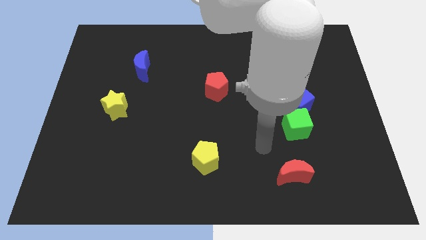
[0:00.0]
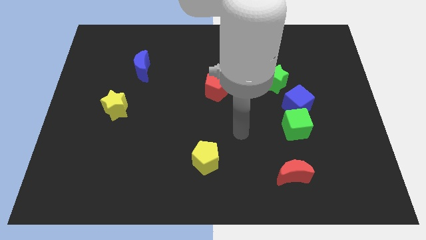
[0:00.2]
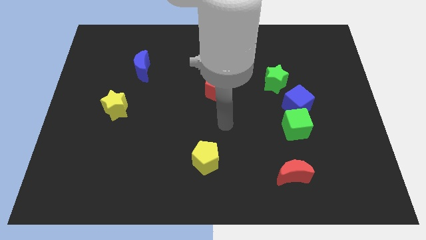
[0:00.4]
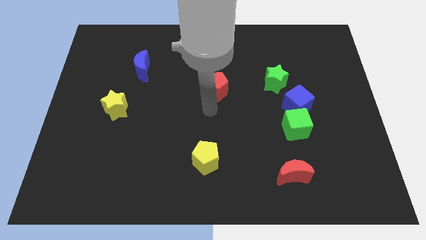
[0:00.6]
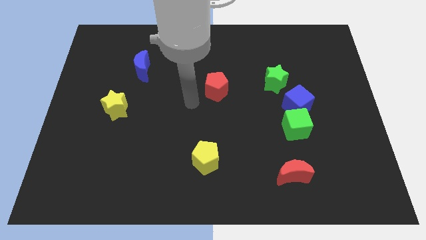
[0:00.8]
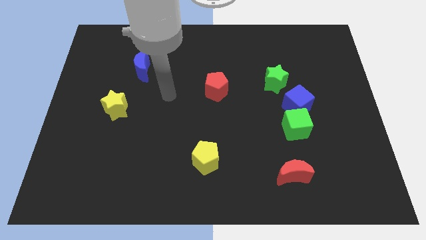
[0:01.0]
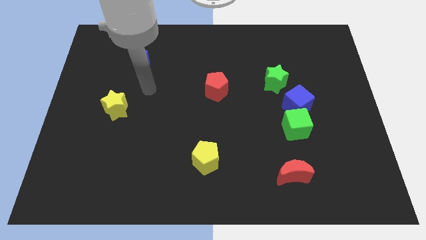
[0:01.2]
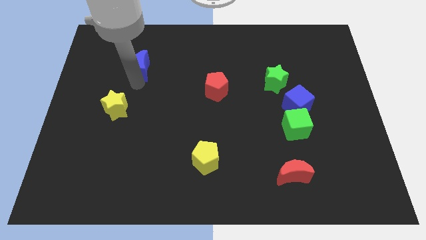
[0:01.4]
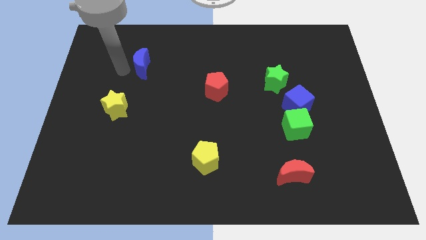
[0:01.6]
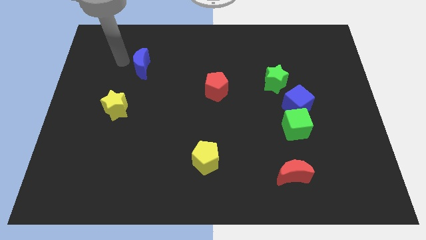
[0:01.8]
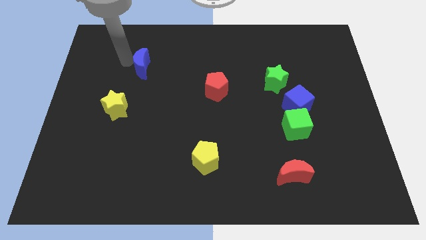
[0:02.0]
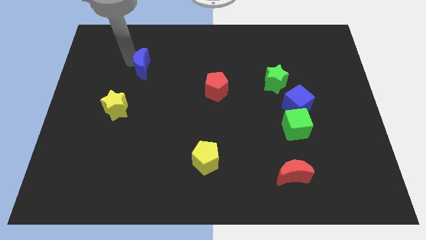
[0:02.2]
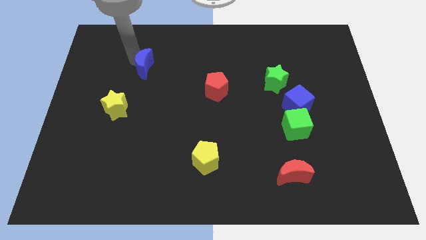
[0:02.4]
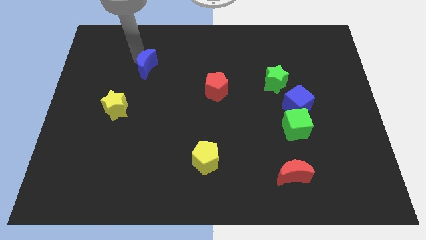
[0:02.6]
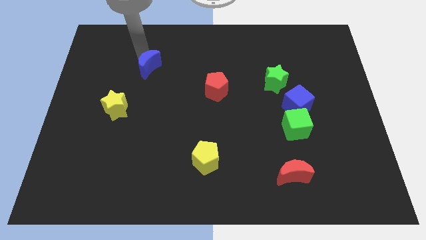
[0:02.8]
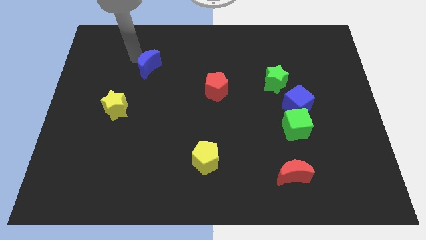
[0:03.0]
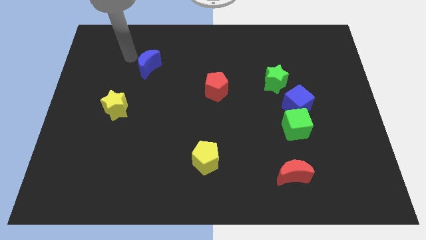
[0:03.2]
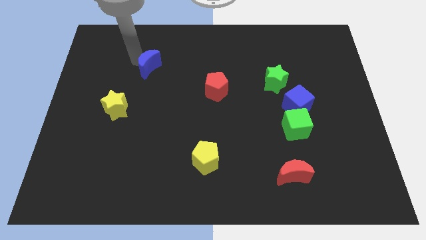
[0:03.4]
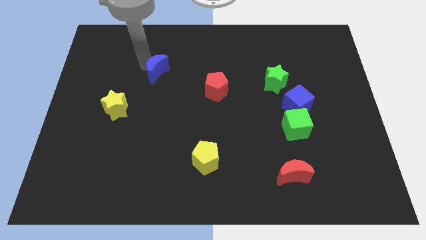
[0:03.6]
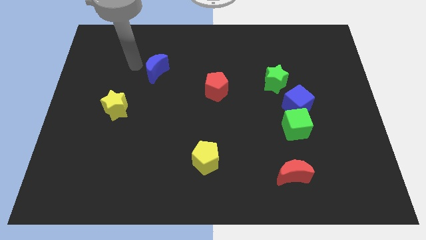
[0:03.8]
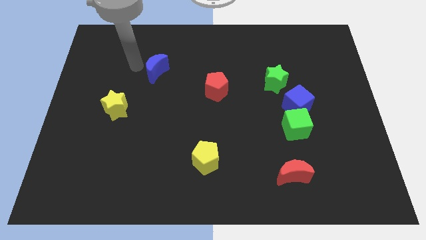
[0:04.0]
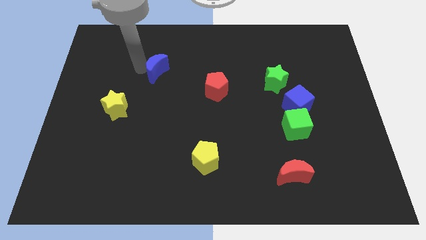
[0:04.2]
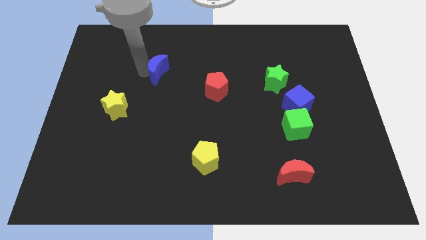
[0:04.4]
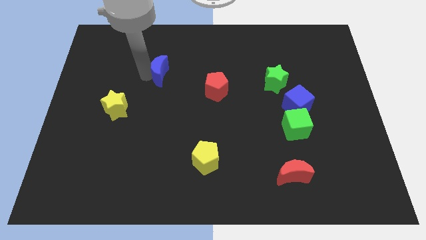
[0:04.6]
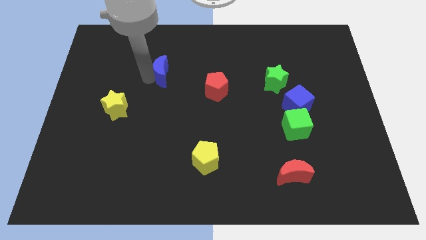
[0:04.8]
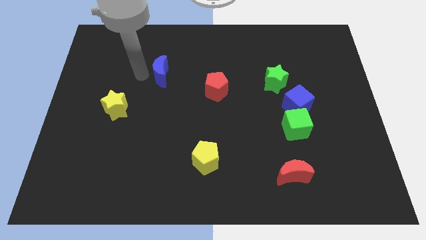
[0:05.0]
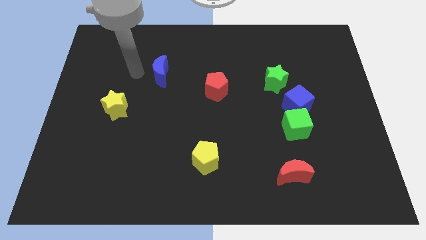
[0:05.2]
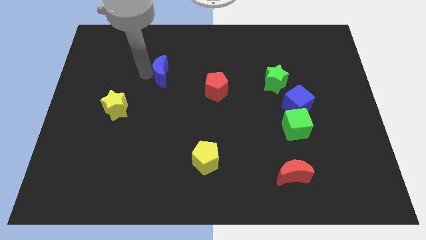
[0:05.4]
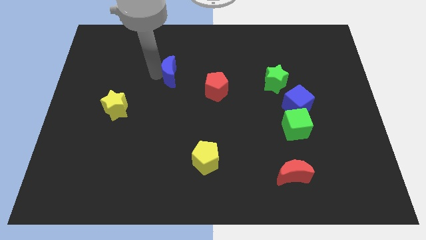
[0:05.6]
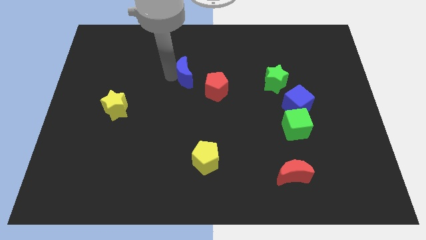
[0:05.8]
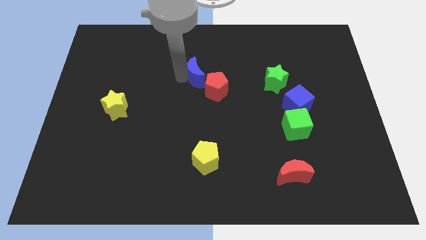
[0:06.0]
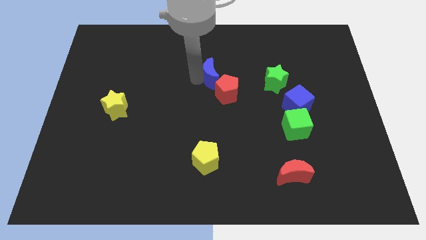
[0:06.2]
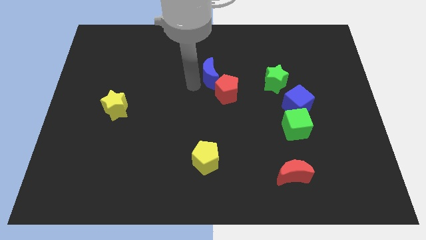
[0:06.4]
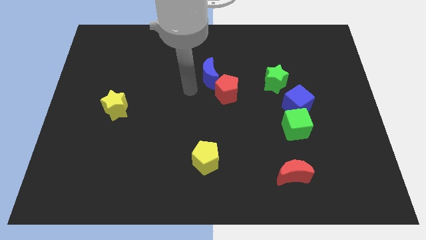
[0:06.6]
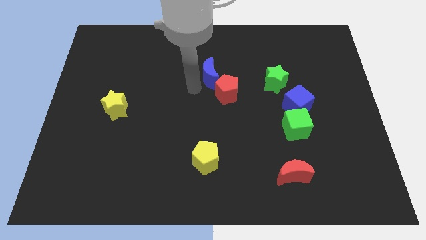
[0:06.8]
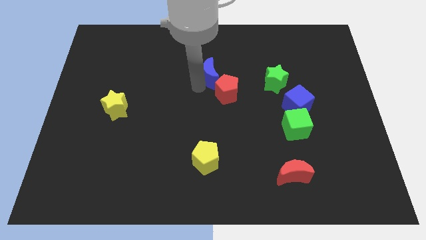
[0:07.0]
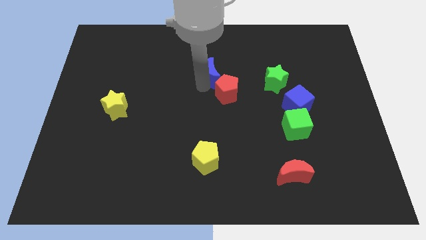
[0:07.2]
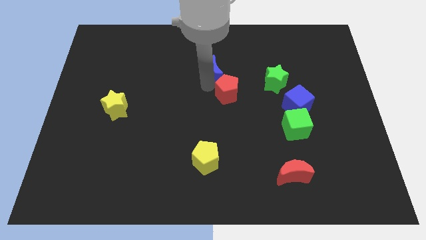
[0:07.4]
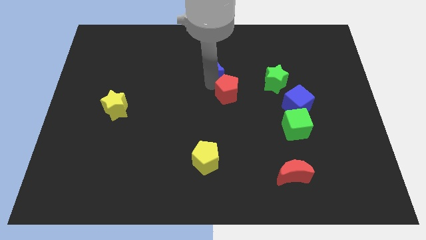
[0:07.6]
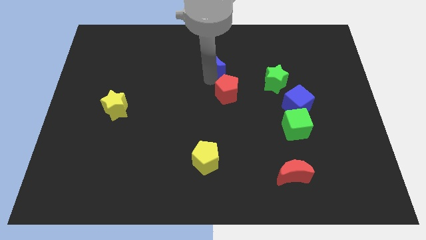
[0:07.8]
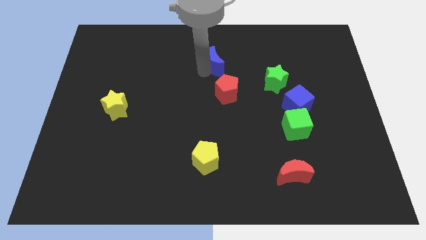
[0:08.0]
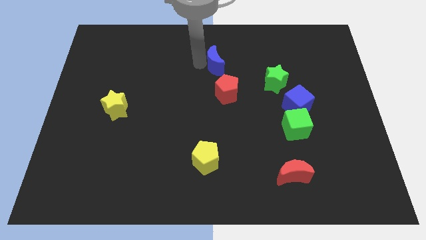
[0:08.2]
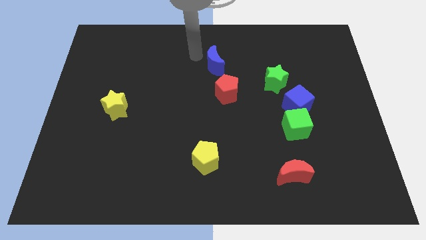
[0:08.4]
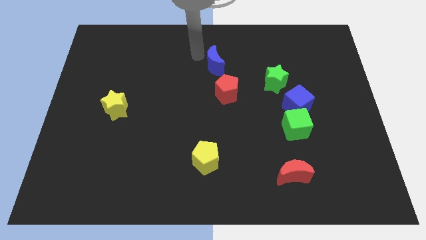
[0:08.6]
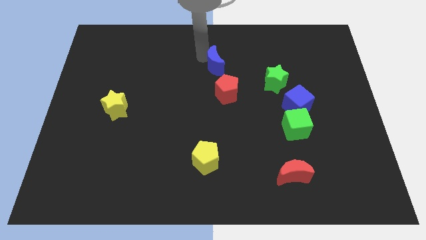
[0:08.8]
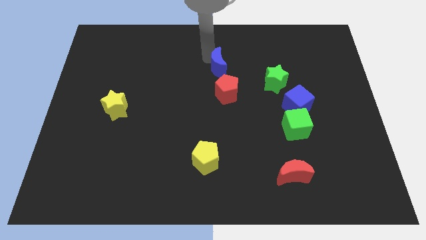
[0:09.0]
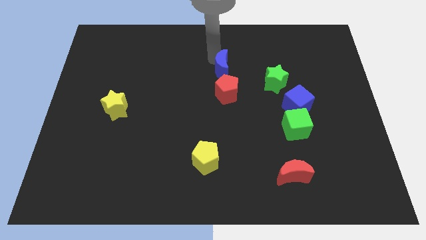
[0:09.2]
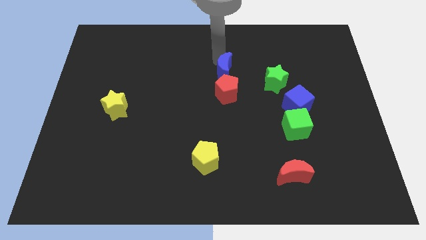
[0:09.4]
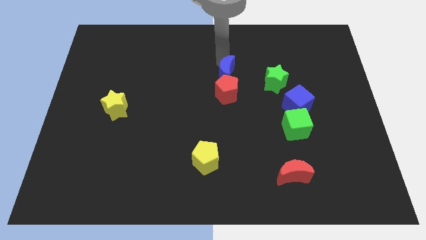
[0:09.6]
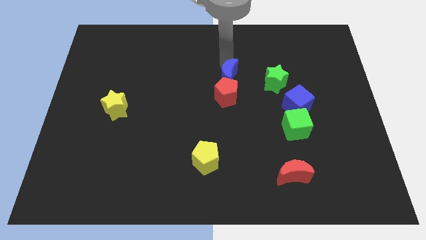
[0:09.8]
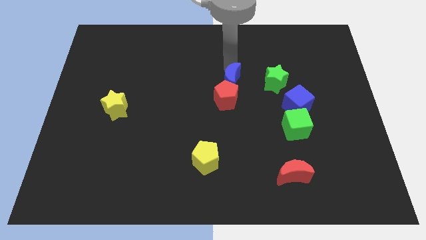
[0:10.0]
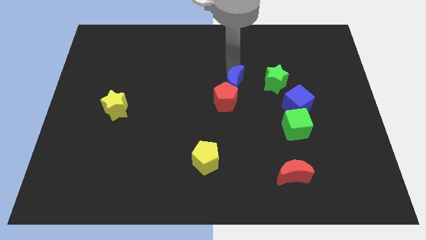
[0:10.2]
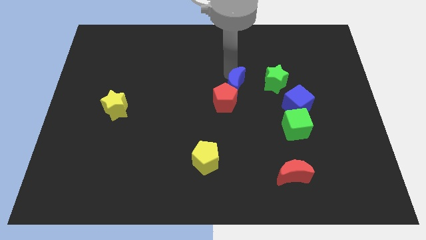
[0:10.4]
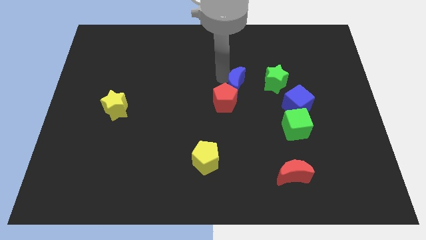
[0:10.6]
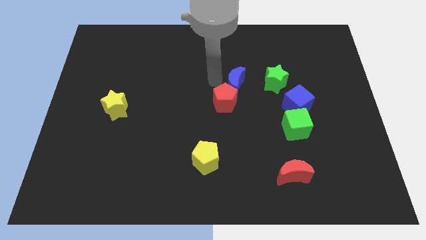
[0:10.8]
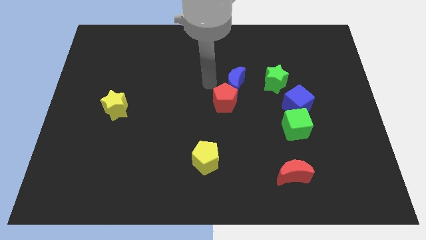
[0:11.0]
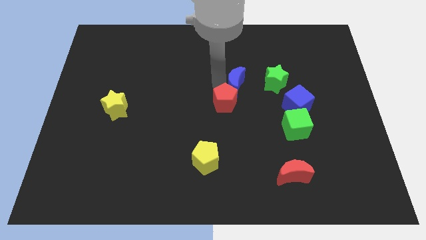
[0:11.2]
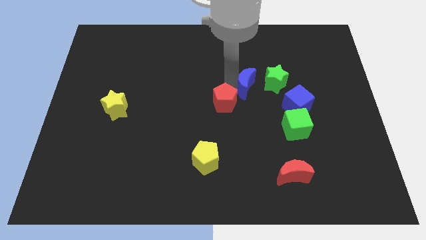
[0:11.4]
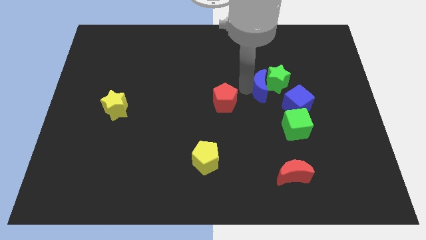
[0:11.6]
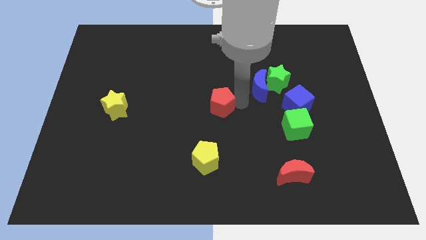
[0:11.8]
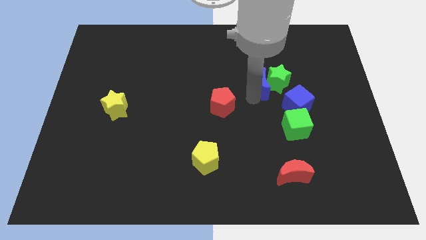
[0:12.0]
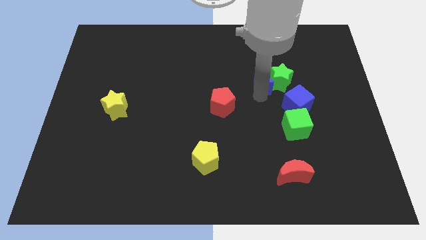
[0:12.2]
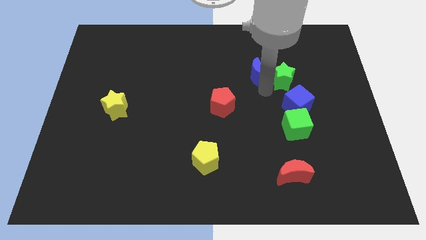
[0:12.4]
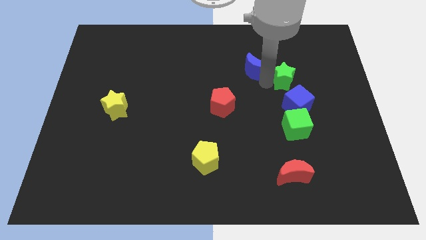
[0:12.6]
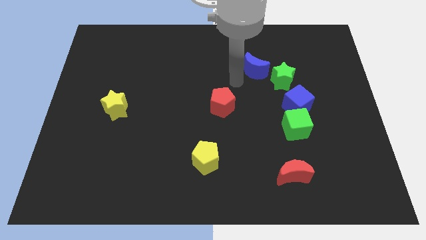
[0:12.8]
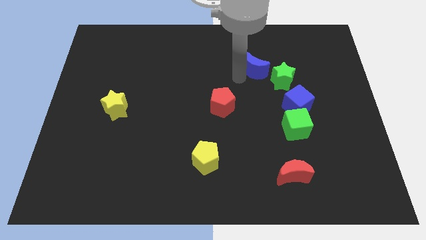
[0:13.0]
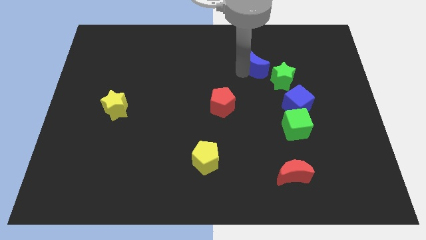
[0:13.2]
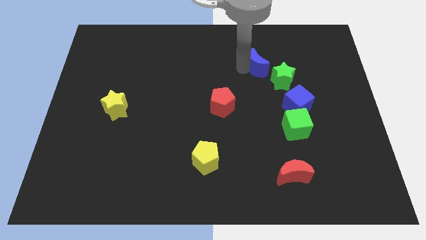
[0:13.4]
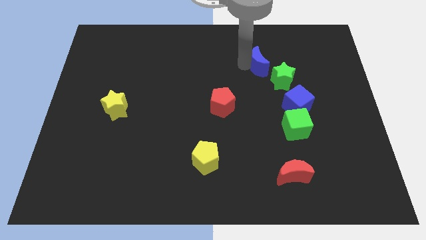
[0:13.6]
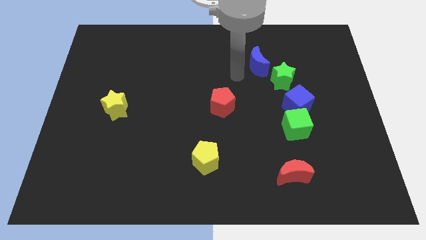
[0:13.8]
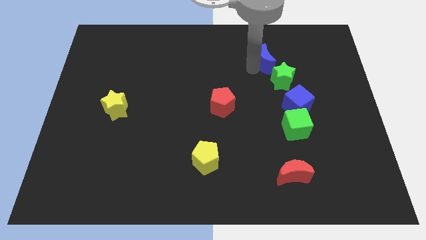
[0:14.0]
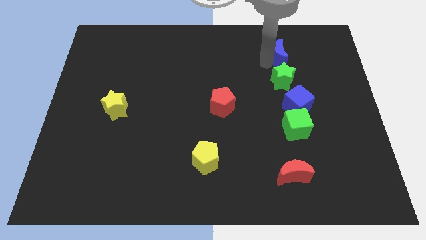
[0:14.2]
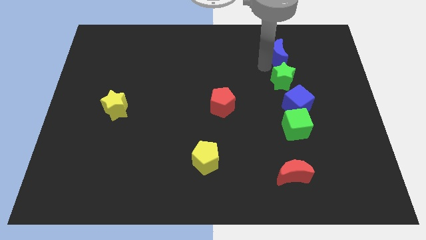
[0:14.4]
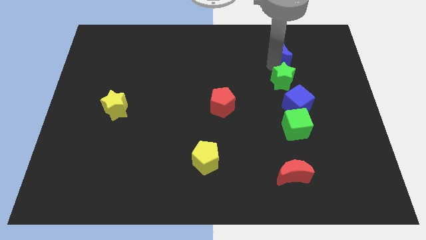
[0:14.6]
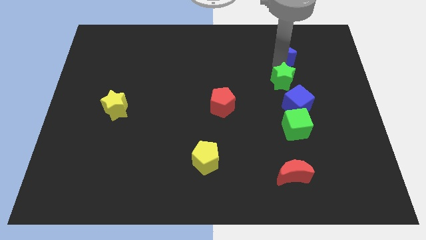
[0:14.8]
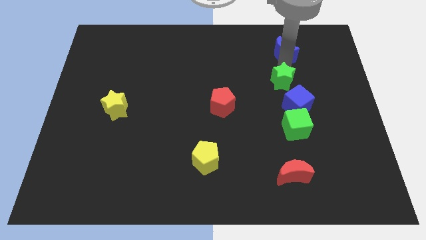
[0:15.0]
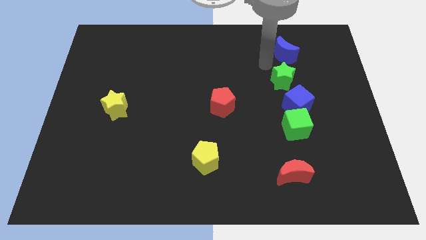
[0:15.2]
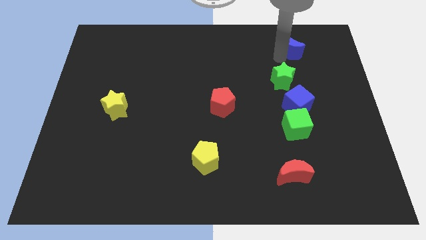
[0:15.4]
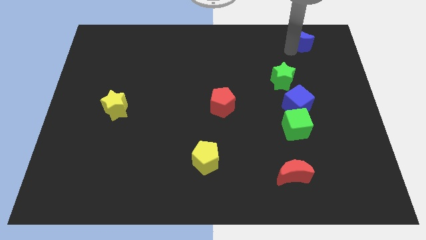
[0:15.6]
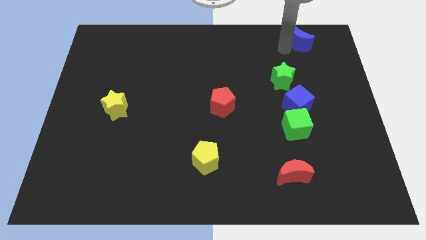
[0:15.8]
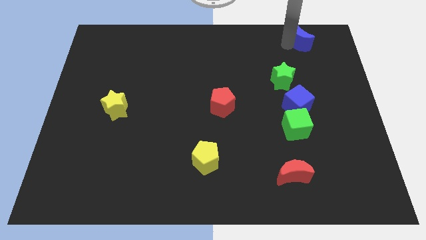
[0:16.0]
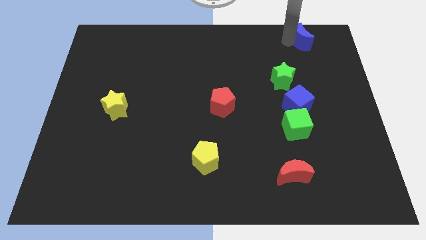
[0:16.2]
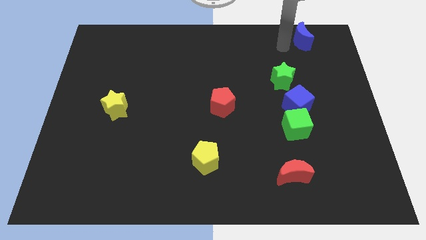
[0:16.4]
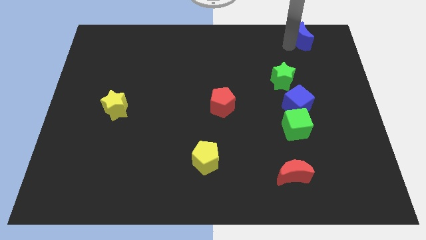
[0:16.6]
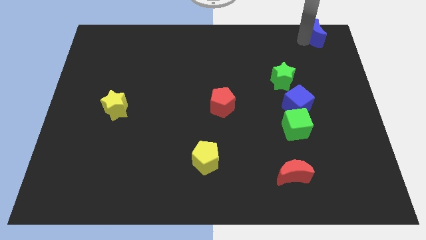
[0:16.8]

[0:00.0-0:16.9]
slide the blue moon to the top right corner
